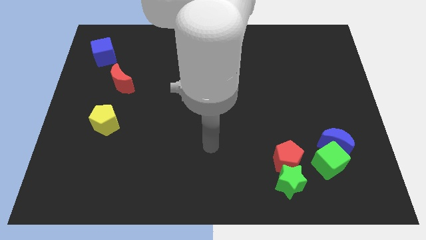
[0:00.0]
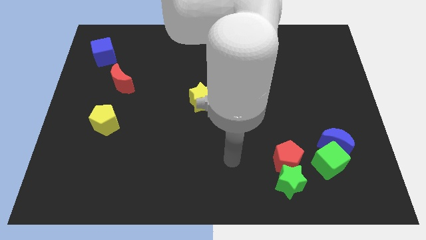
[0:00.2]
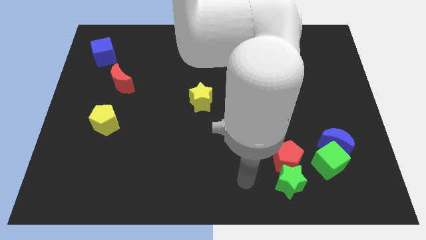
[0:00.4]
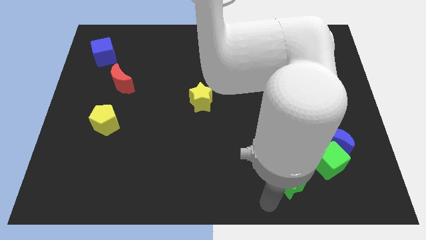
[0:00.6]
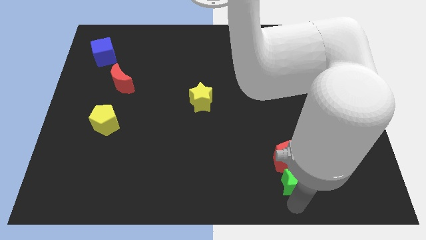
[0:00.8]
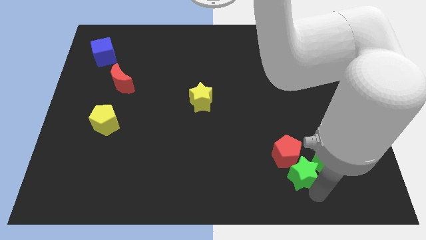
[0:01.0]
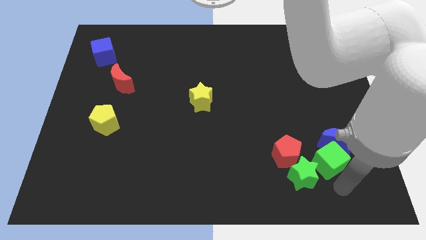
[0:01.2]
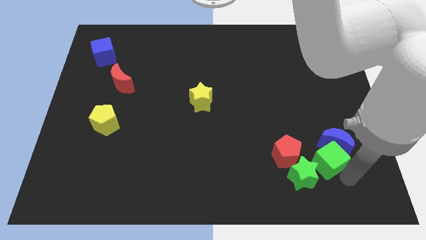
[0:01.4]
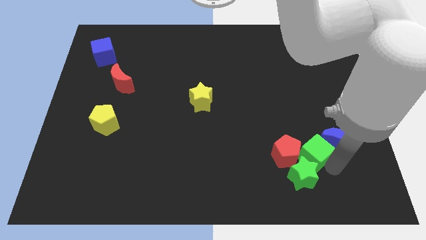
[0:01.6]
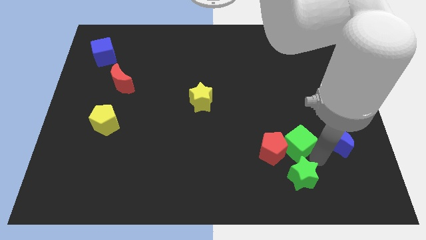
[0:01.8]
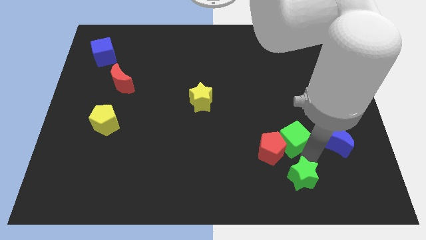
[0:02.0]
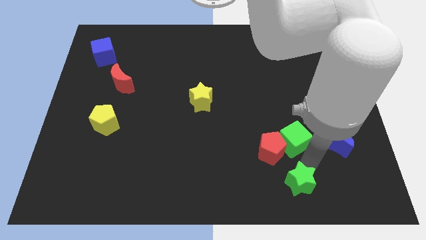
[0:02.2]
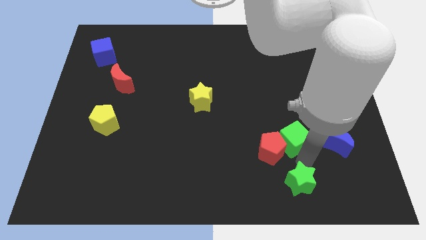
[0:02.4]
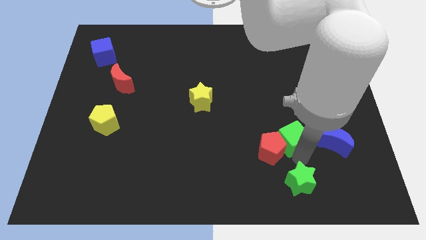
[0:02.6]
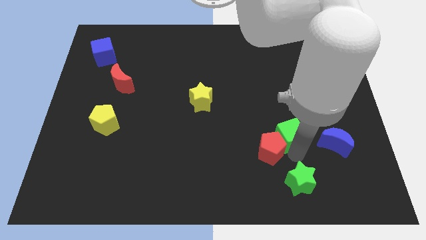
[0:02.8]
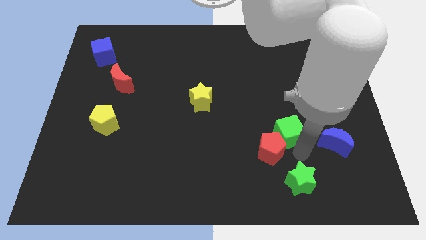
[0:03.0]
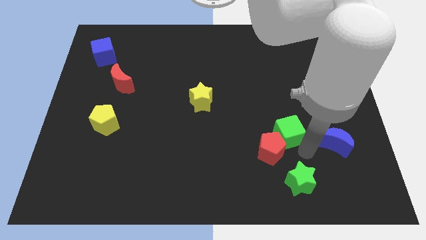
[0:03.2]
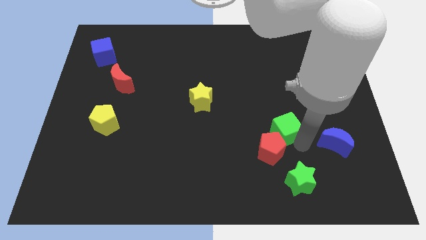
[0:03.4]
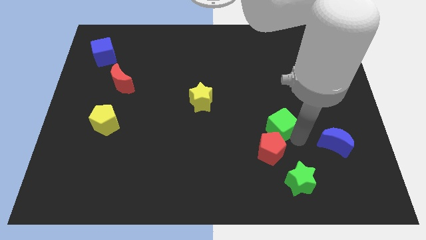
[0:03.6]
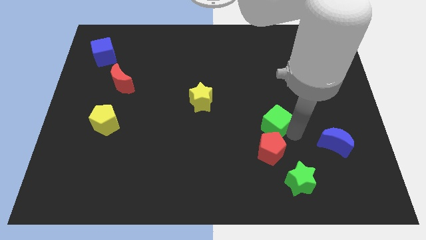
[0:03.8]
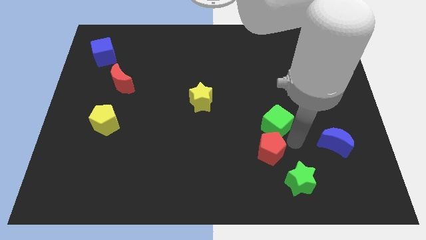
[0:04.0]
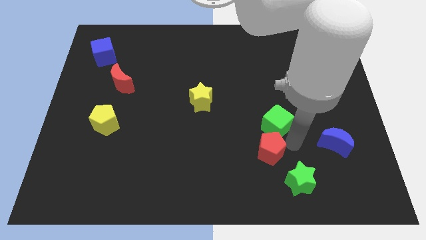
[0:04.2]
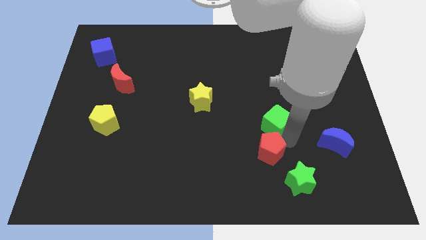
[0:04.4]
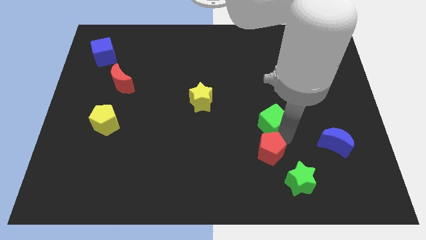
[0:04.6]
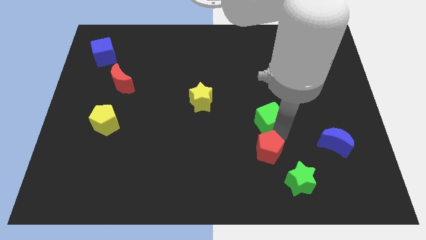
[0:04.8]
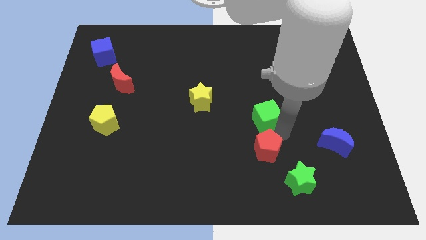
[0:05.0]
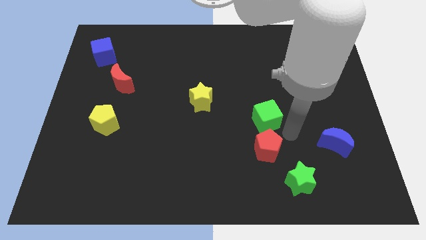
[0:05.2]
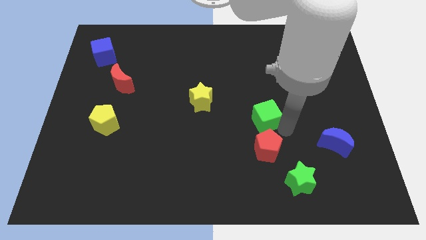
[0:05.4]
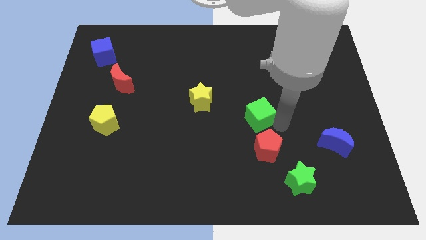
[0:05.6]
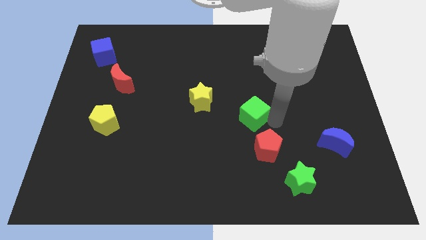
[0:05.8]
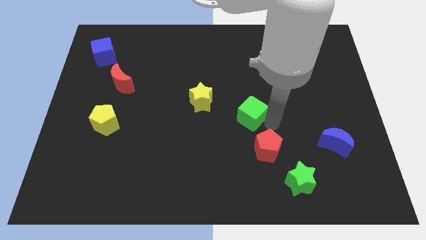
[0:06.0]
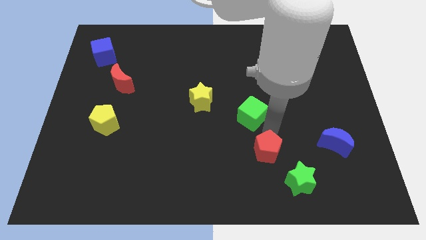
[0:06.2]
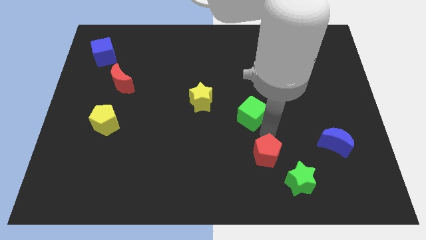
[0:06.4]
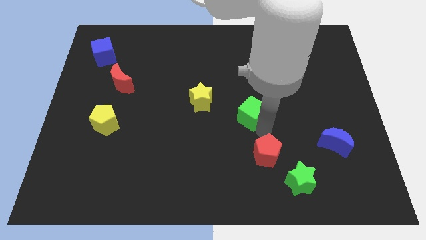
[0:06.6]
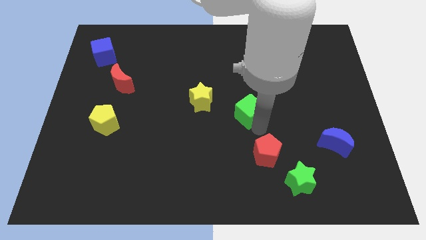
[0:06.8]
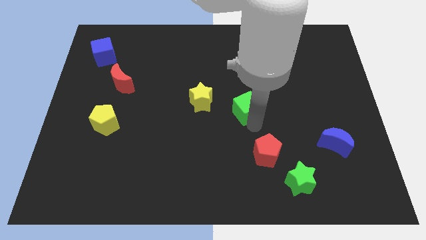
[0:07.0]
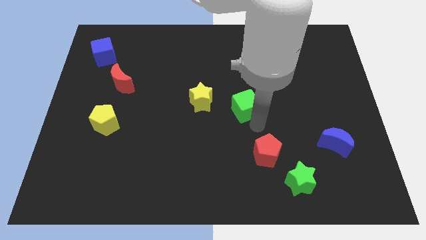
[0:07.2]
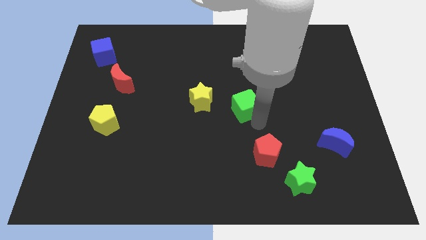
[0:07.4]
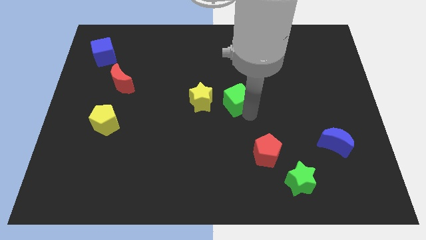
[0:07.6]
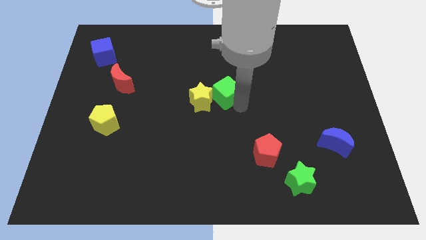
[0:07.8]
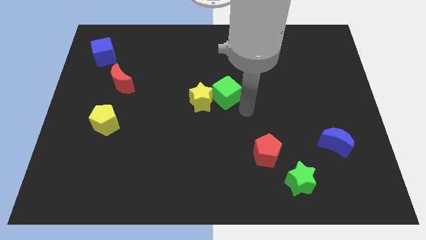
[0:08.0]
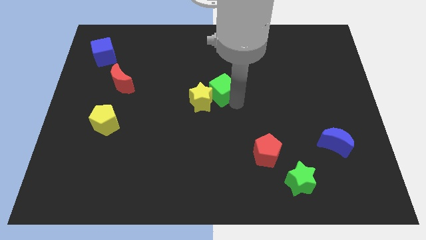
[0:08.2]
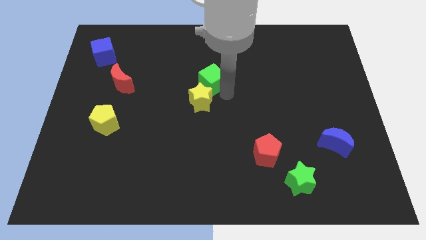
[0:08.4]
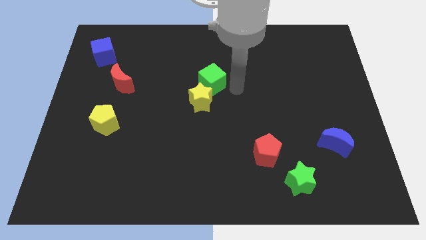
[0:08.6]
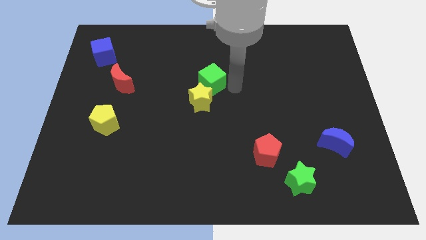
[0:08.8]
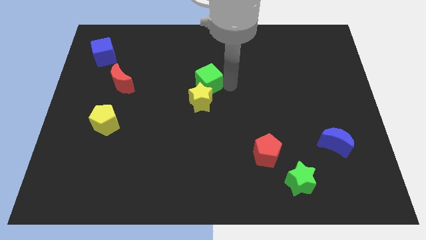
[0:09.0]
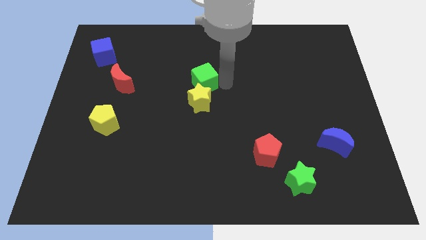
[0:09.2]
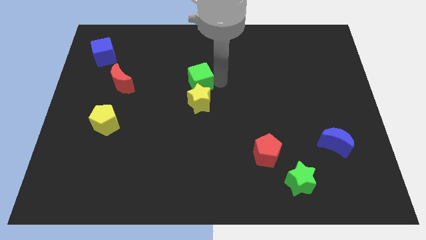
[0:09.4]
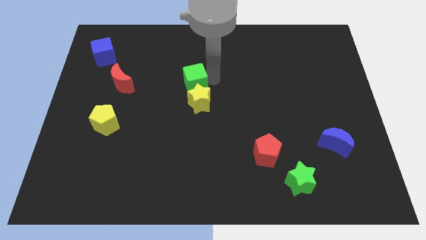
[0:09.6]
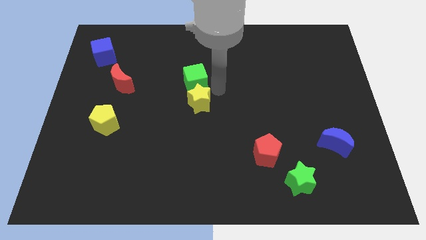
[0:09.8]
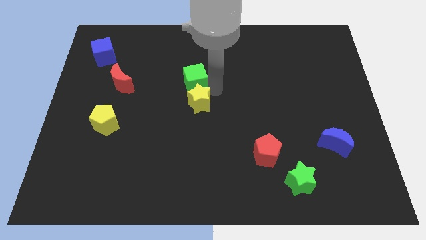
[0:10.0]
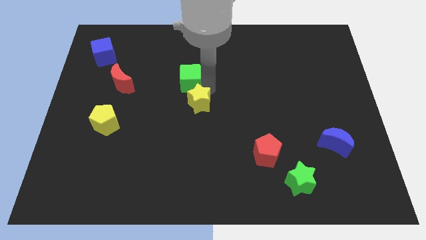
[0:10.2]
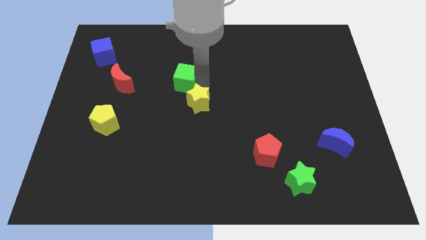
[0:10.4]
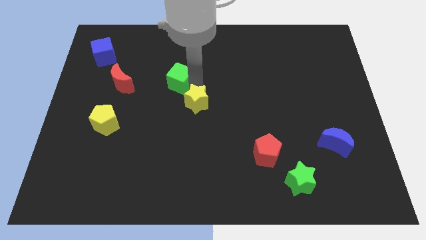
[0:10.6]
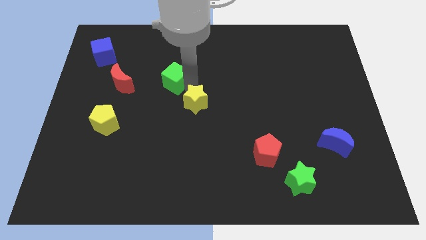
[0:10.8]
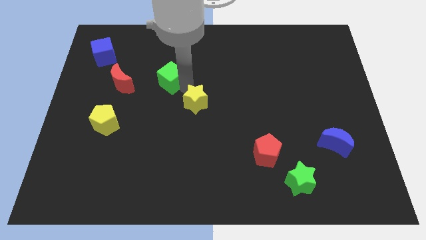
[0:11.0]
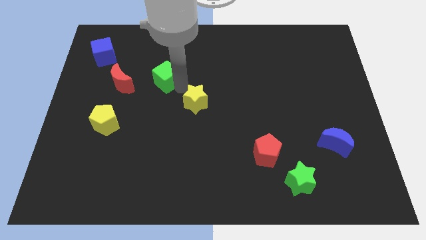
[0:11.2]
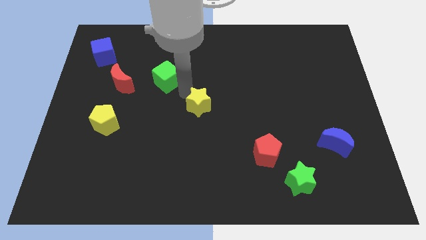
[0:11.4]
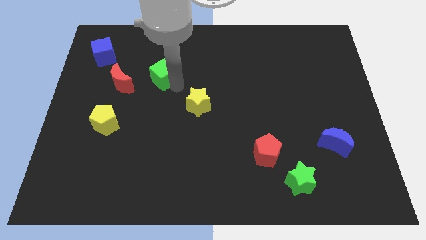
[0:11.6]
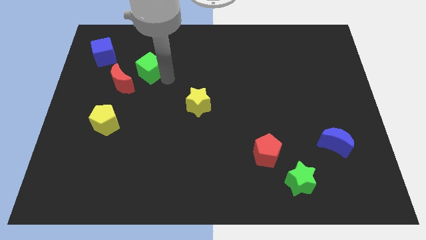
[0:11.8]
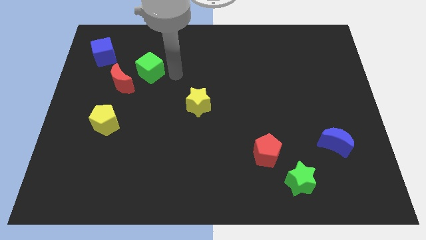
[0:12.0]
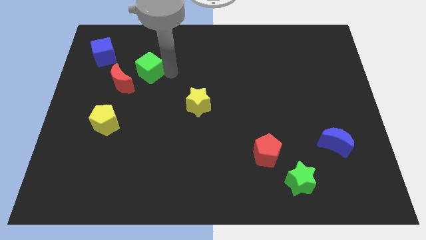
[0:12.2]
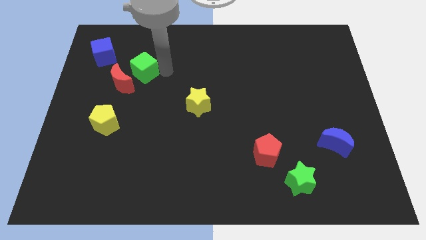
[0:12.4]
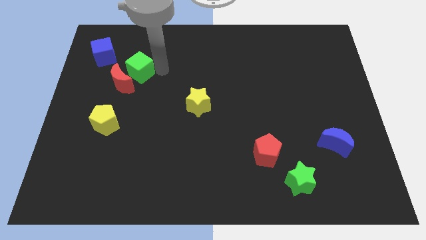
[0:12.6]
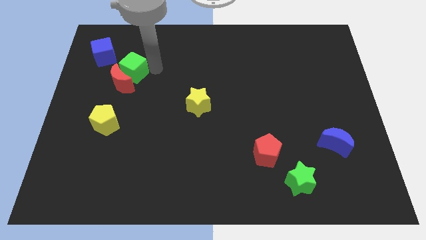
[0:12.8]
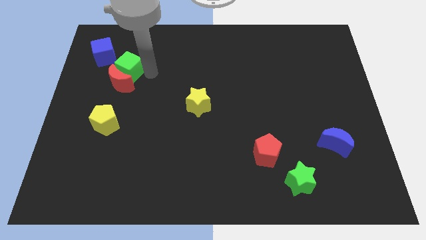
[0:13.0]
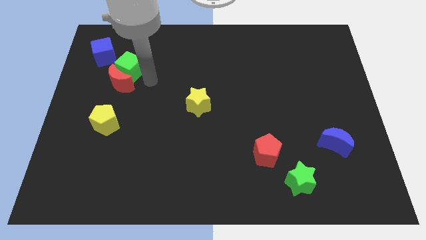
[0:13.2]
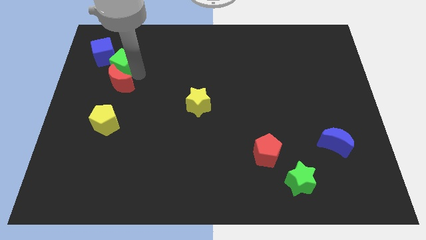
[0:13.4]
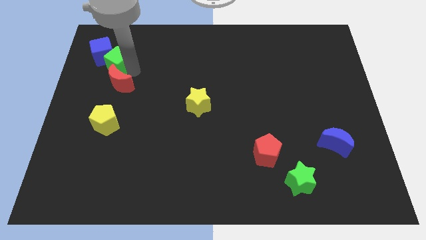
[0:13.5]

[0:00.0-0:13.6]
push the green cube to the blue cube

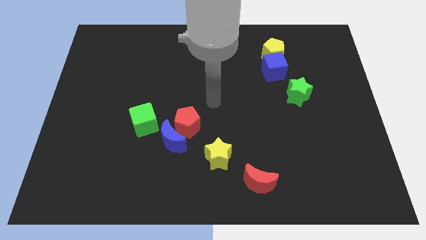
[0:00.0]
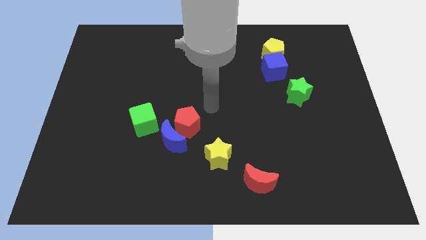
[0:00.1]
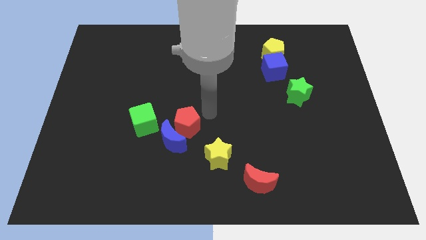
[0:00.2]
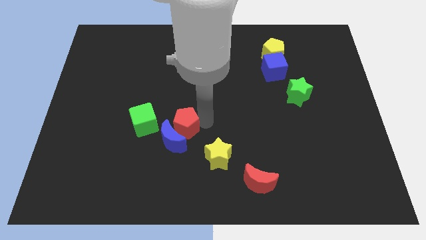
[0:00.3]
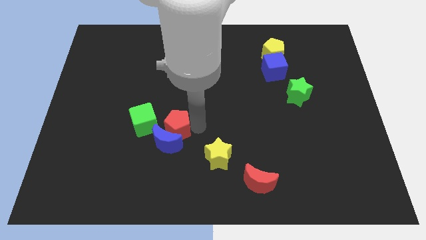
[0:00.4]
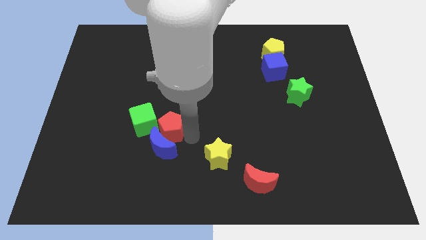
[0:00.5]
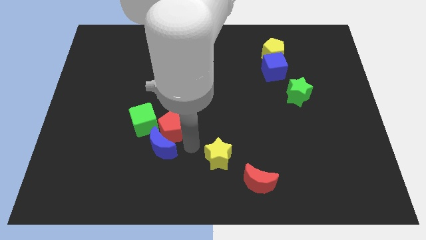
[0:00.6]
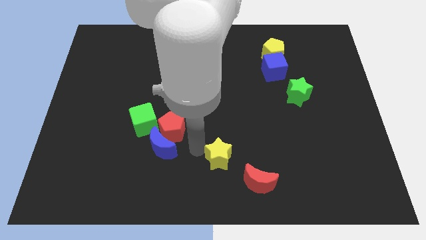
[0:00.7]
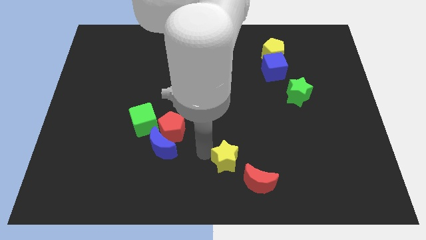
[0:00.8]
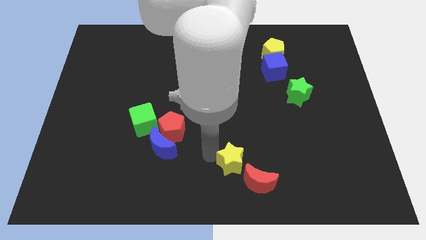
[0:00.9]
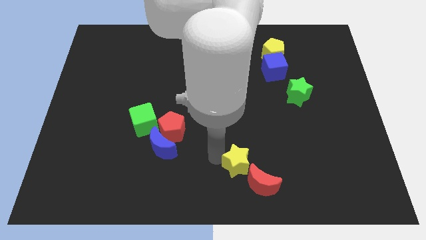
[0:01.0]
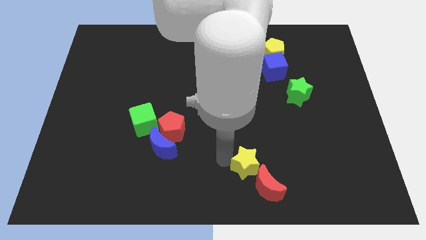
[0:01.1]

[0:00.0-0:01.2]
move the yellow star towards the red moon
